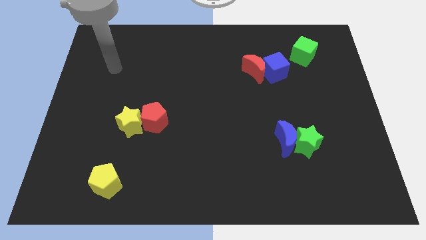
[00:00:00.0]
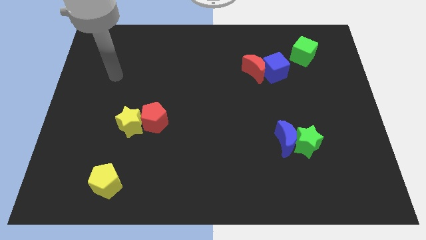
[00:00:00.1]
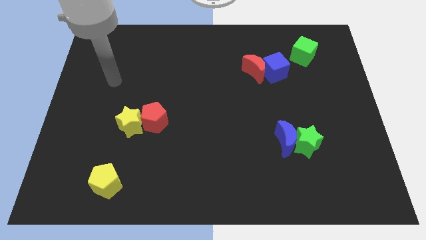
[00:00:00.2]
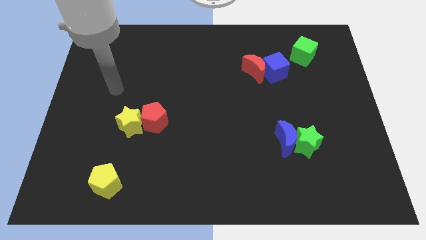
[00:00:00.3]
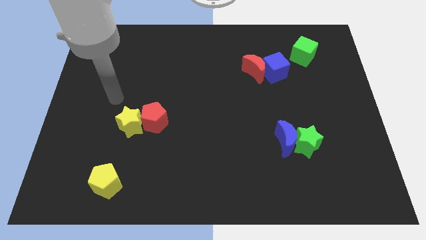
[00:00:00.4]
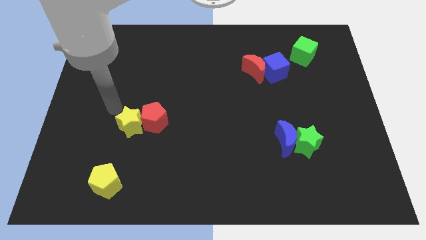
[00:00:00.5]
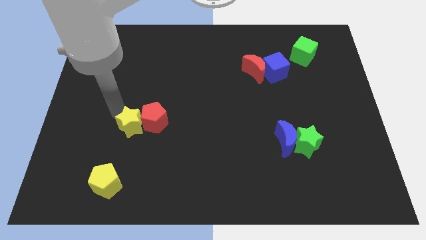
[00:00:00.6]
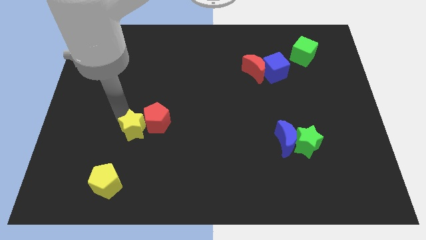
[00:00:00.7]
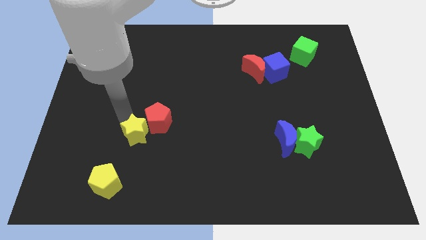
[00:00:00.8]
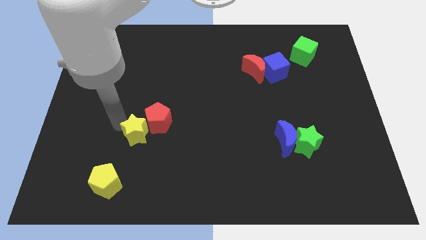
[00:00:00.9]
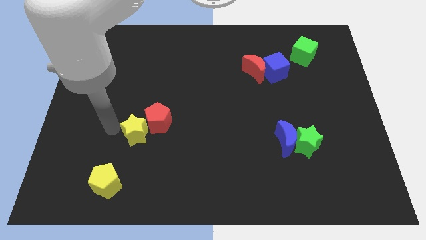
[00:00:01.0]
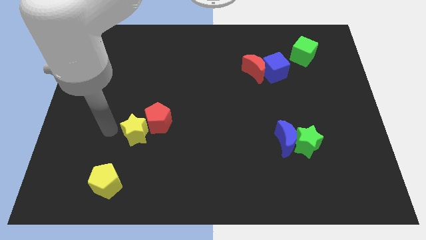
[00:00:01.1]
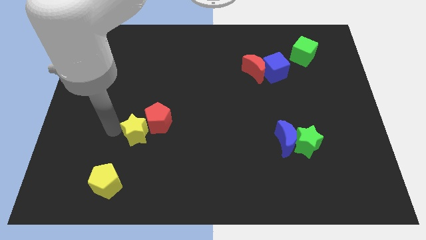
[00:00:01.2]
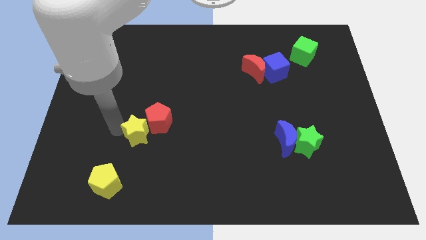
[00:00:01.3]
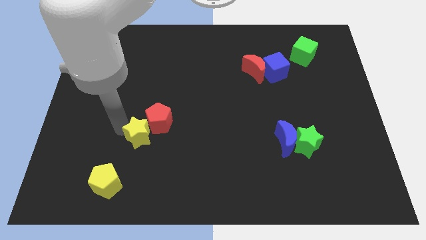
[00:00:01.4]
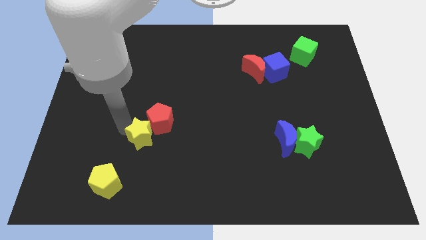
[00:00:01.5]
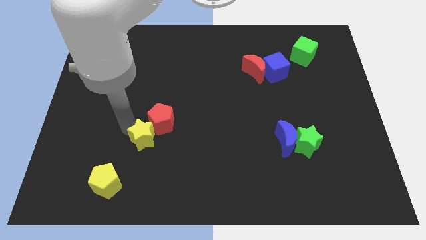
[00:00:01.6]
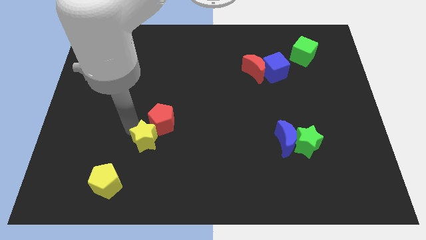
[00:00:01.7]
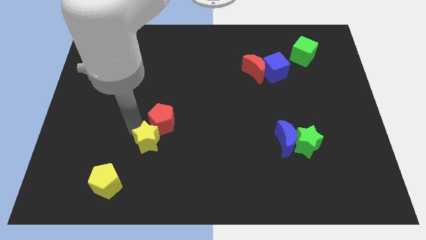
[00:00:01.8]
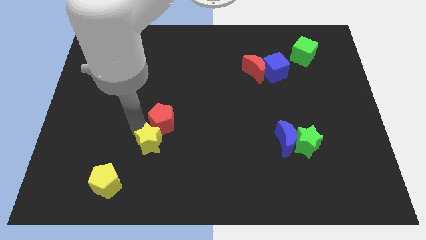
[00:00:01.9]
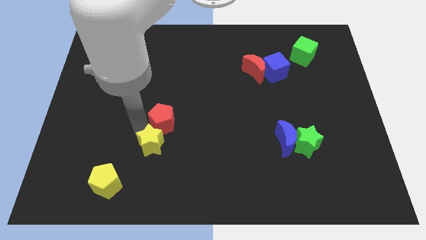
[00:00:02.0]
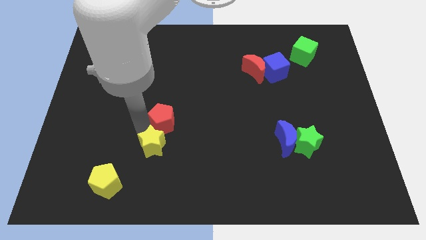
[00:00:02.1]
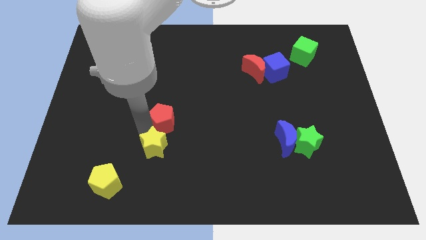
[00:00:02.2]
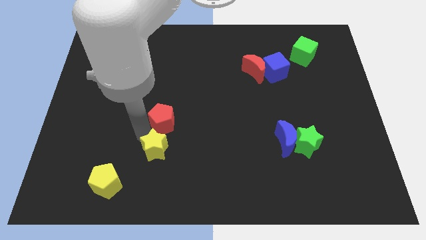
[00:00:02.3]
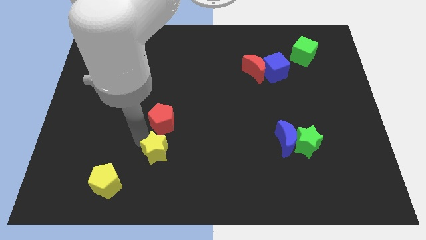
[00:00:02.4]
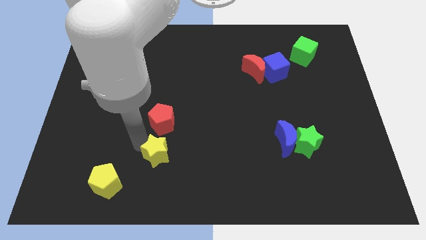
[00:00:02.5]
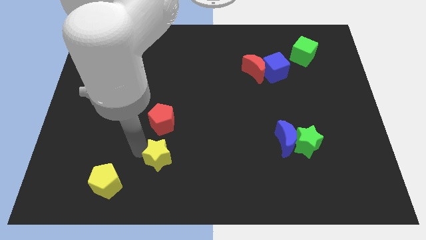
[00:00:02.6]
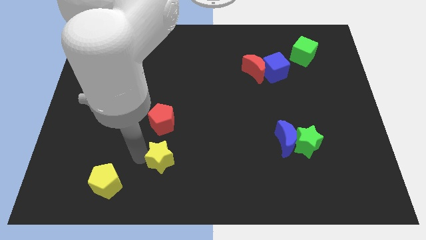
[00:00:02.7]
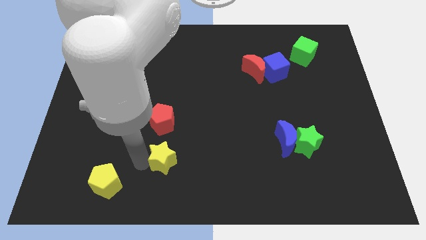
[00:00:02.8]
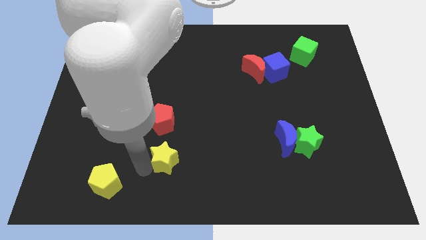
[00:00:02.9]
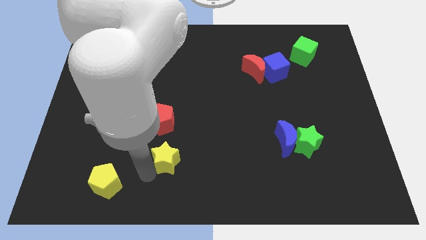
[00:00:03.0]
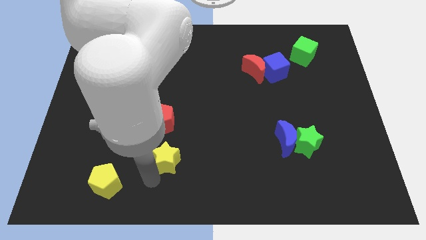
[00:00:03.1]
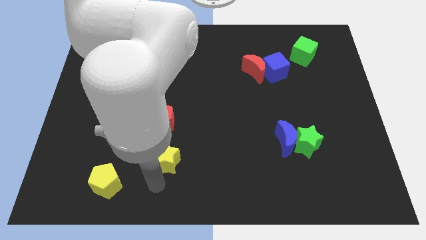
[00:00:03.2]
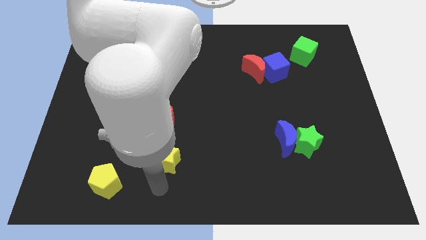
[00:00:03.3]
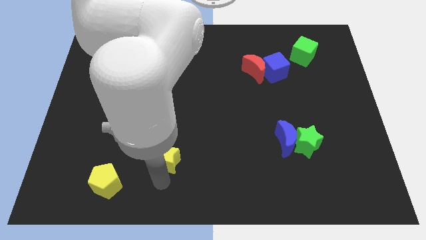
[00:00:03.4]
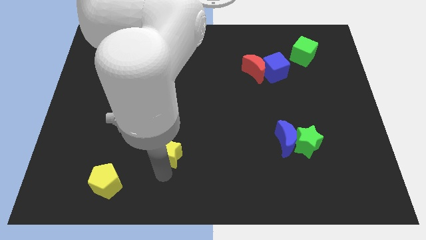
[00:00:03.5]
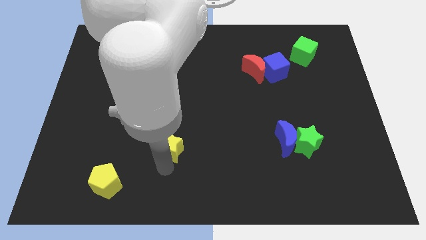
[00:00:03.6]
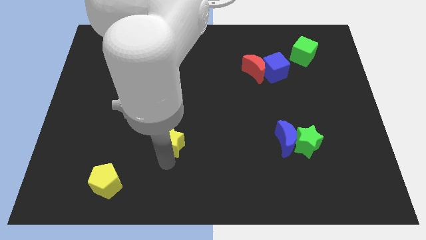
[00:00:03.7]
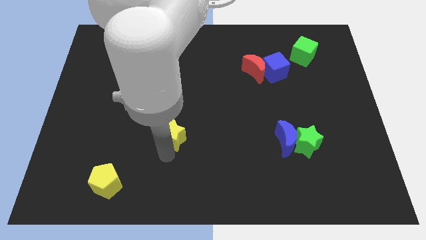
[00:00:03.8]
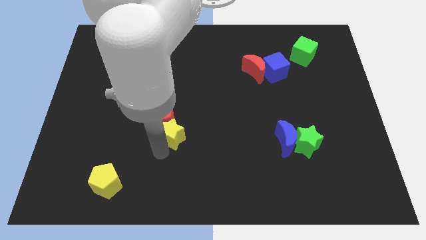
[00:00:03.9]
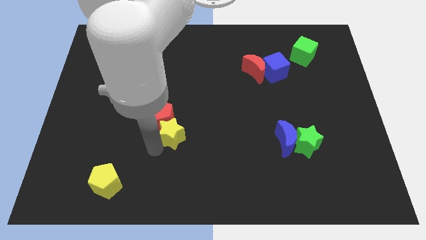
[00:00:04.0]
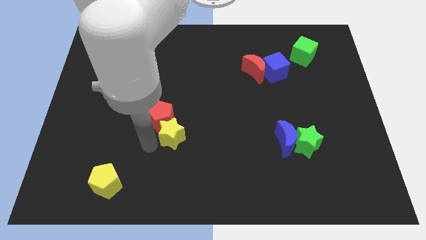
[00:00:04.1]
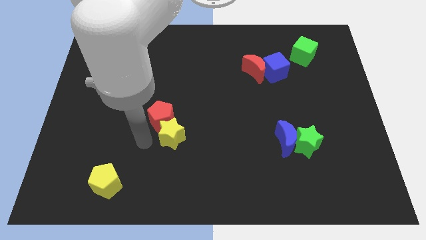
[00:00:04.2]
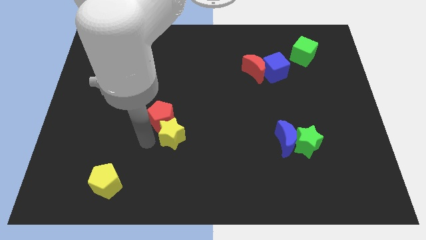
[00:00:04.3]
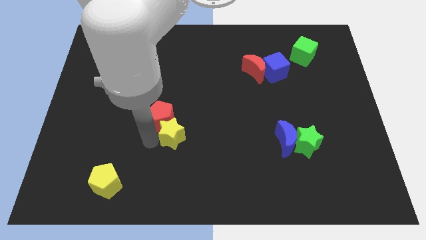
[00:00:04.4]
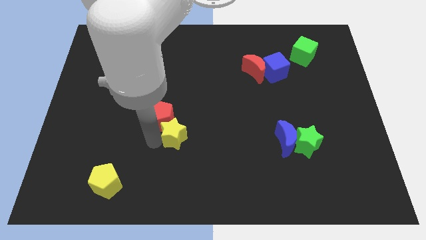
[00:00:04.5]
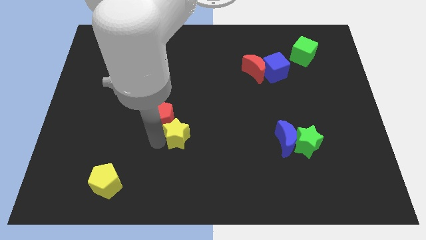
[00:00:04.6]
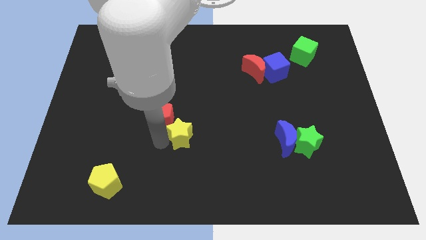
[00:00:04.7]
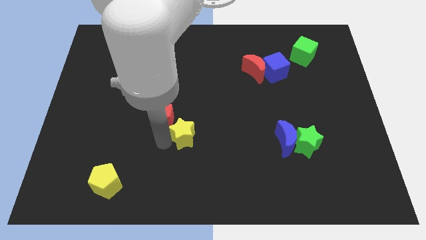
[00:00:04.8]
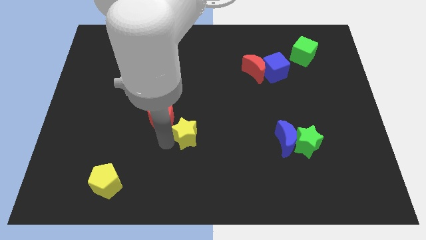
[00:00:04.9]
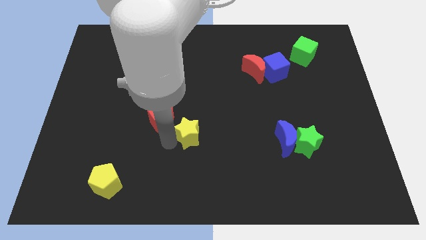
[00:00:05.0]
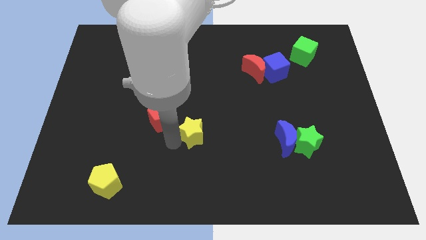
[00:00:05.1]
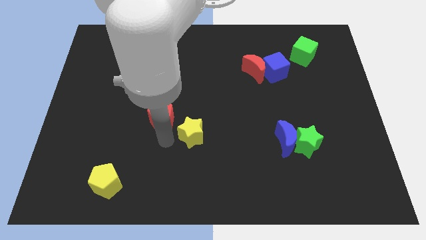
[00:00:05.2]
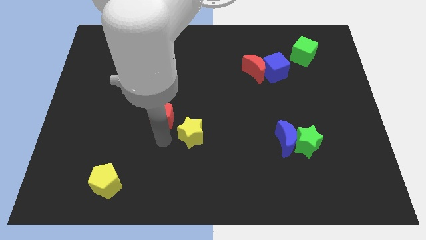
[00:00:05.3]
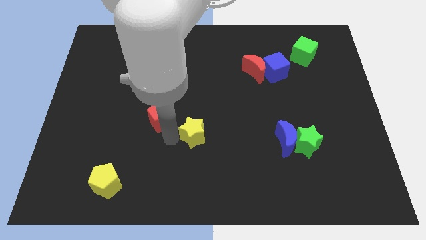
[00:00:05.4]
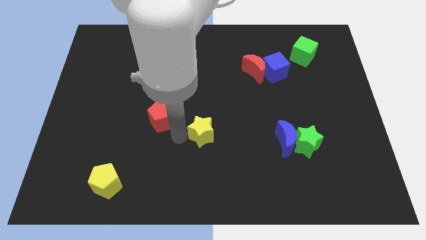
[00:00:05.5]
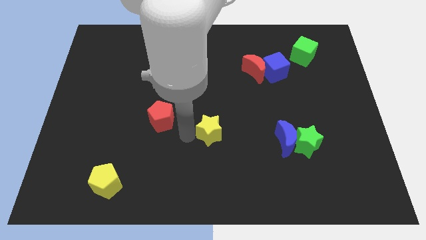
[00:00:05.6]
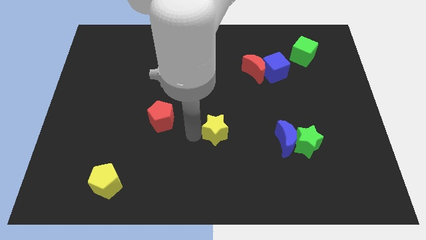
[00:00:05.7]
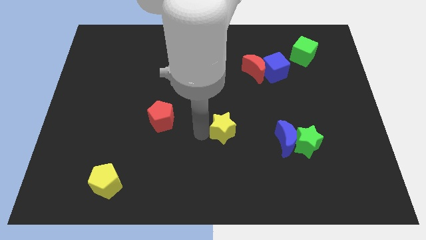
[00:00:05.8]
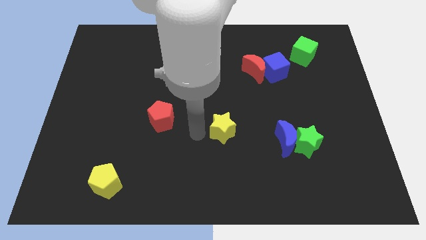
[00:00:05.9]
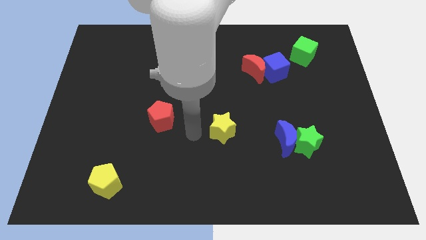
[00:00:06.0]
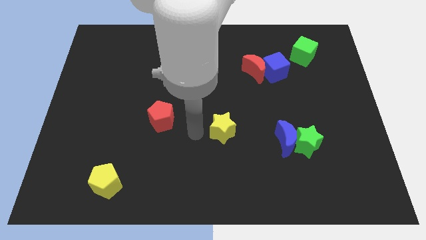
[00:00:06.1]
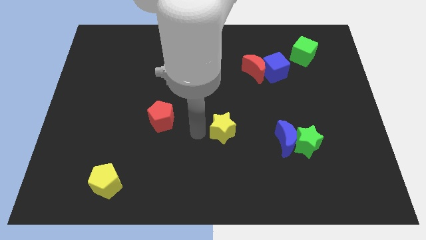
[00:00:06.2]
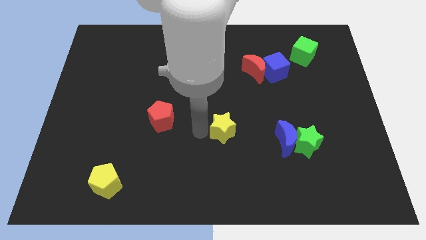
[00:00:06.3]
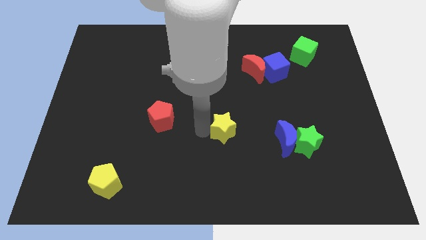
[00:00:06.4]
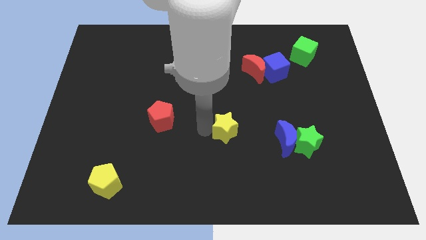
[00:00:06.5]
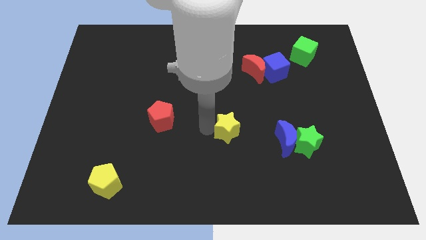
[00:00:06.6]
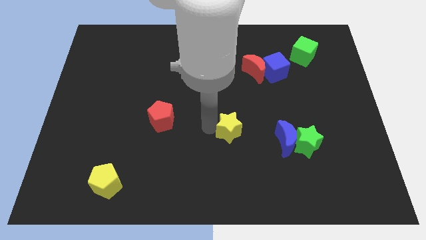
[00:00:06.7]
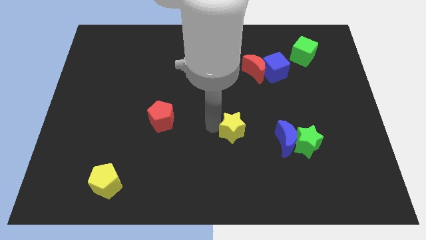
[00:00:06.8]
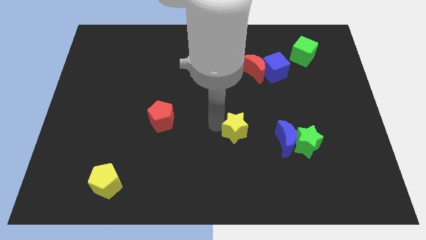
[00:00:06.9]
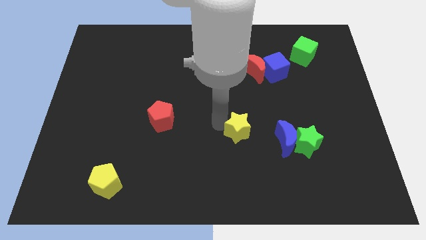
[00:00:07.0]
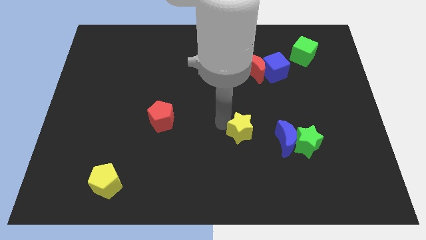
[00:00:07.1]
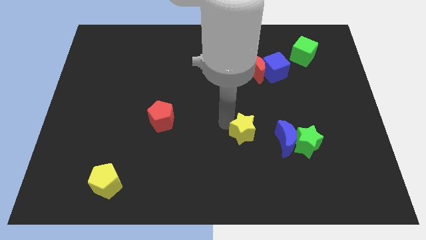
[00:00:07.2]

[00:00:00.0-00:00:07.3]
move the yellow star to the top left side of the blue moon

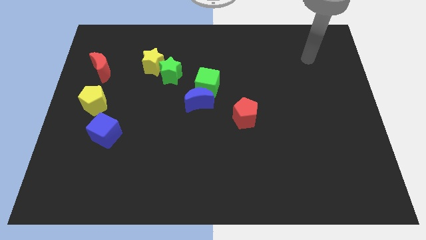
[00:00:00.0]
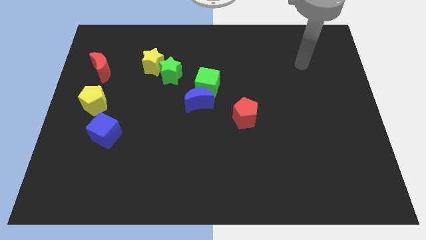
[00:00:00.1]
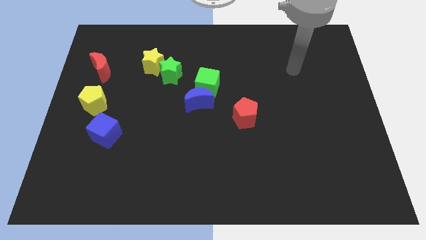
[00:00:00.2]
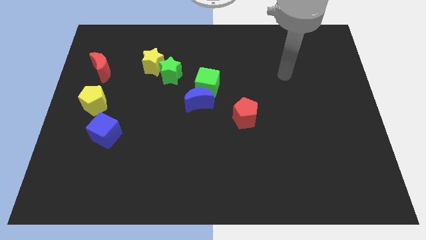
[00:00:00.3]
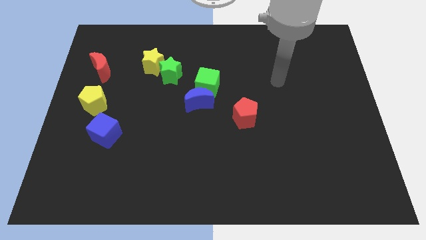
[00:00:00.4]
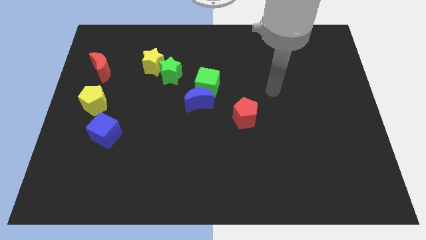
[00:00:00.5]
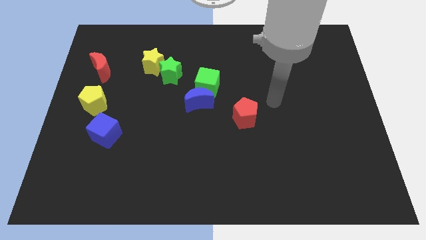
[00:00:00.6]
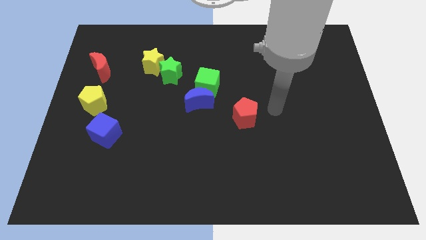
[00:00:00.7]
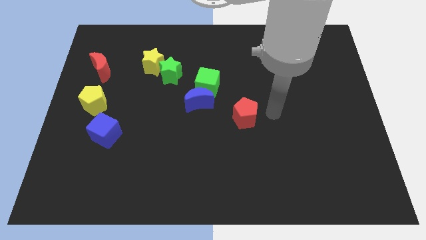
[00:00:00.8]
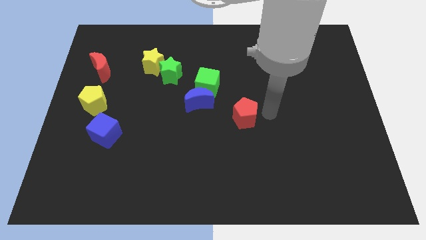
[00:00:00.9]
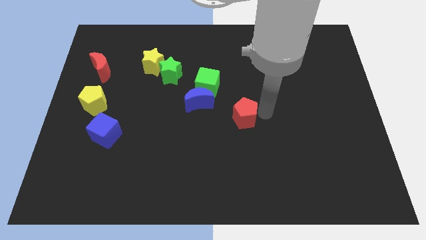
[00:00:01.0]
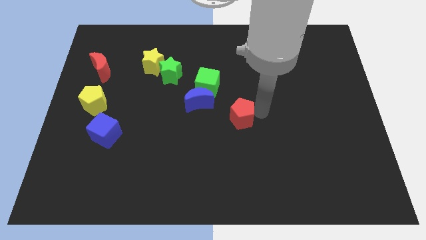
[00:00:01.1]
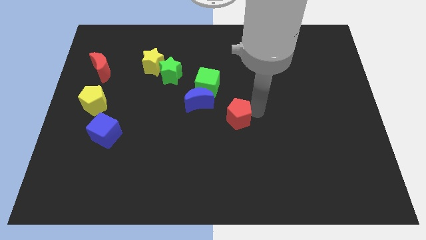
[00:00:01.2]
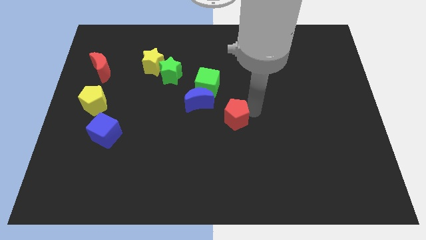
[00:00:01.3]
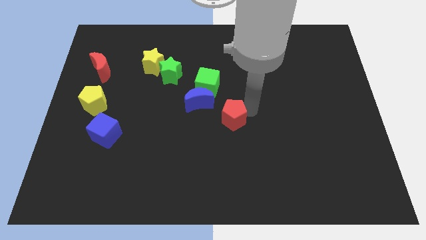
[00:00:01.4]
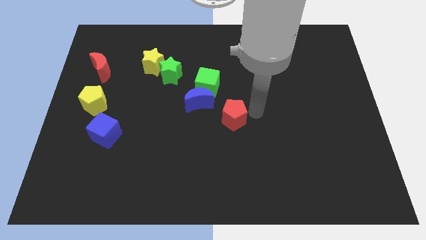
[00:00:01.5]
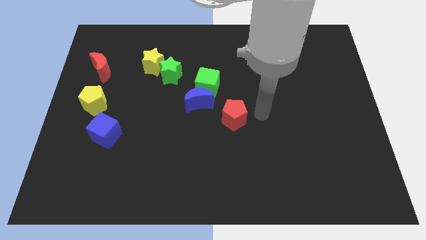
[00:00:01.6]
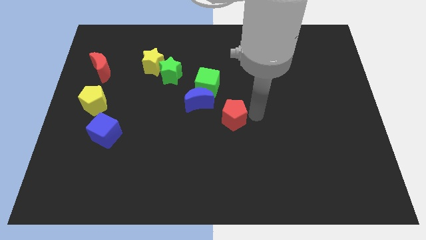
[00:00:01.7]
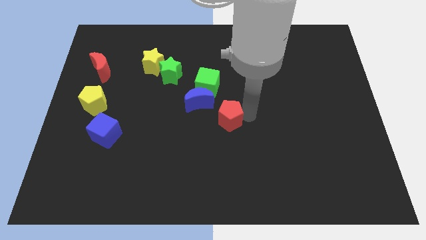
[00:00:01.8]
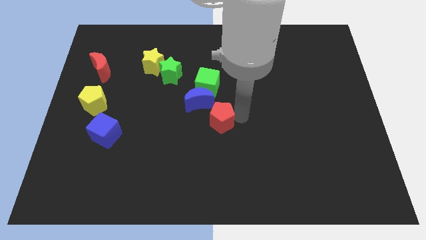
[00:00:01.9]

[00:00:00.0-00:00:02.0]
put the red pentagon to the bottom of the green cube
